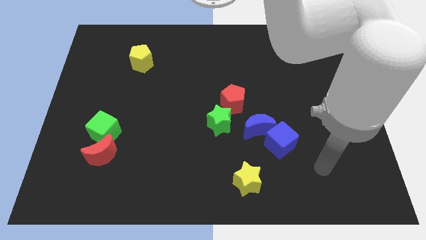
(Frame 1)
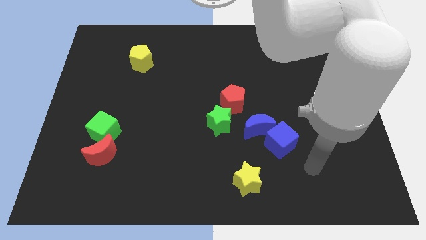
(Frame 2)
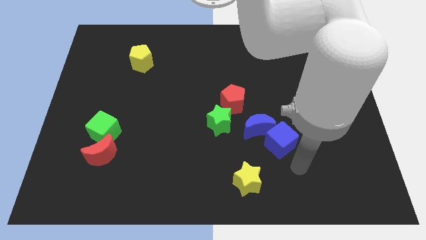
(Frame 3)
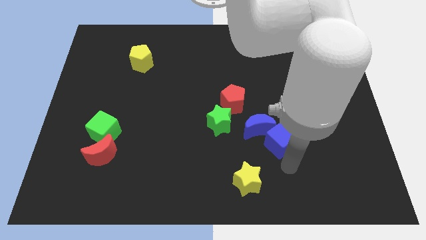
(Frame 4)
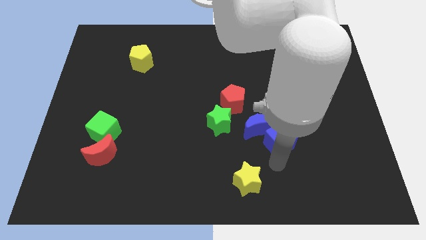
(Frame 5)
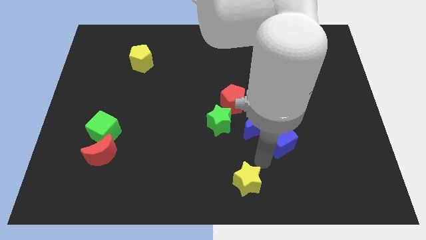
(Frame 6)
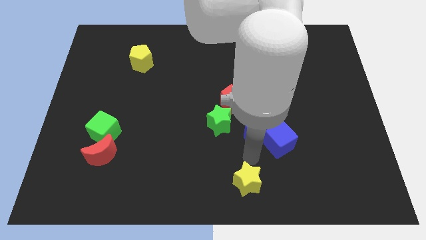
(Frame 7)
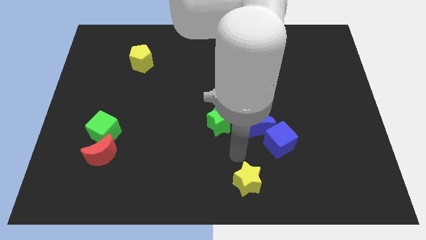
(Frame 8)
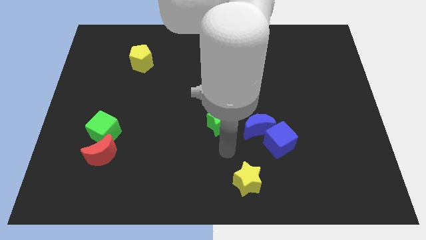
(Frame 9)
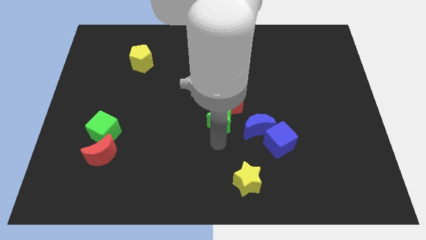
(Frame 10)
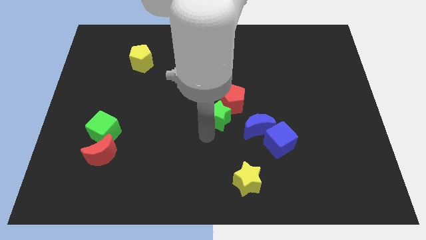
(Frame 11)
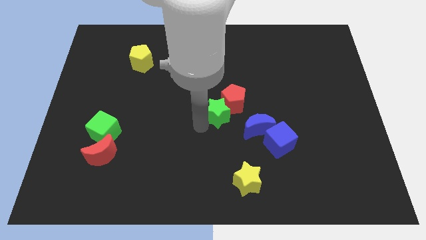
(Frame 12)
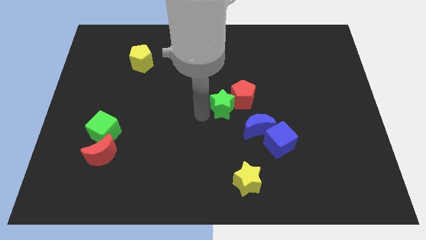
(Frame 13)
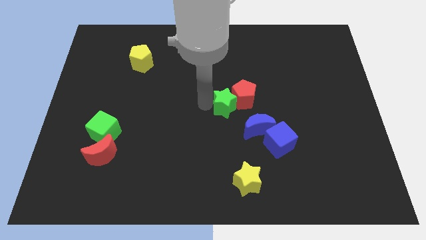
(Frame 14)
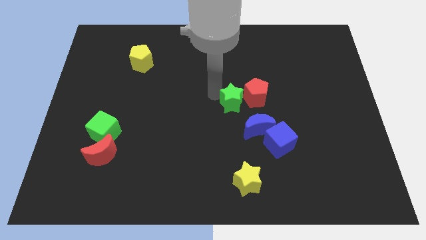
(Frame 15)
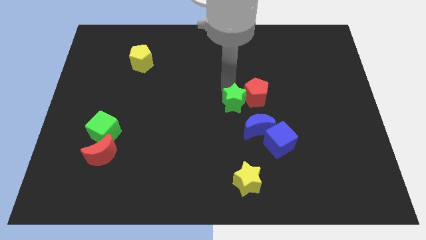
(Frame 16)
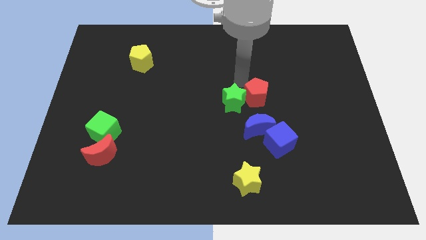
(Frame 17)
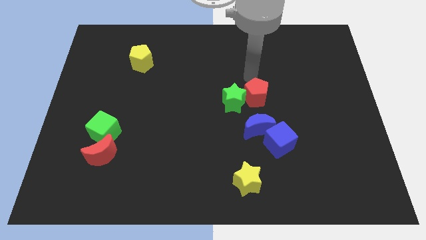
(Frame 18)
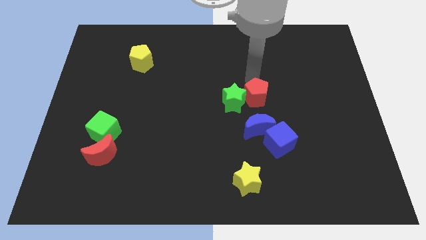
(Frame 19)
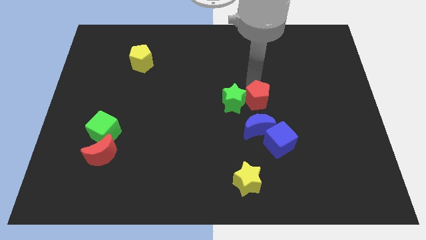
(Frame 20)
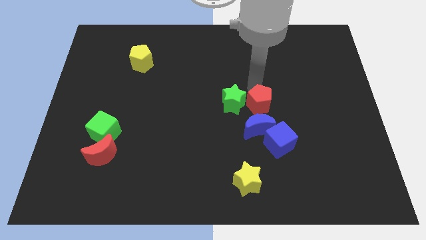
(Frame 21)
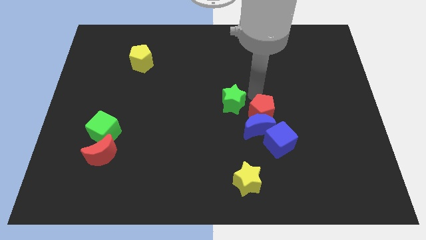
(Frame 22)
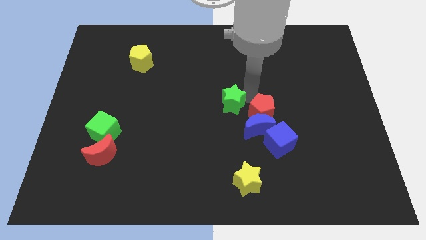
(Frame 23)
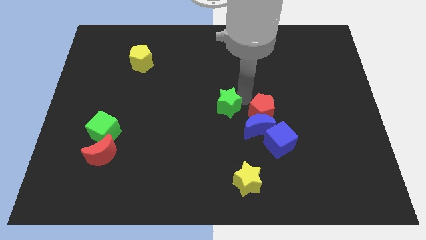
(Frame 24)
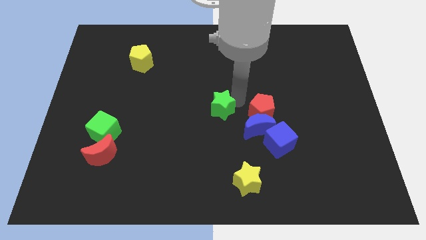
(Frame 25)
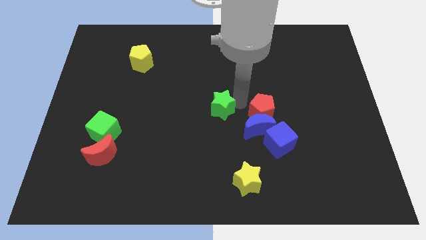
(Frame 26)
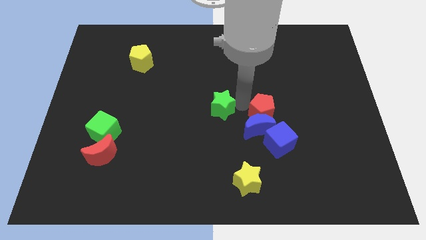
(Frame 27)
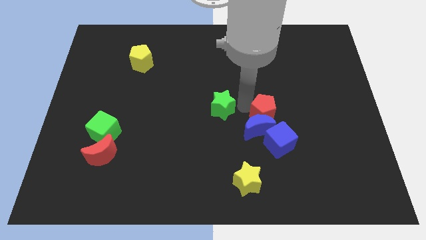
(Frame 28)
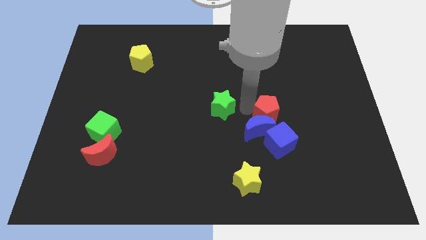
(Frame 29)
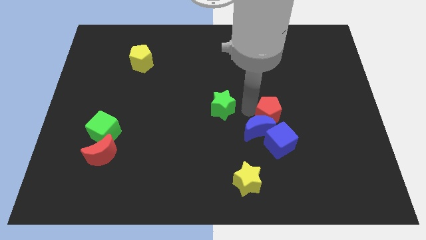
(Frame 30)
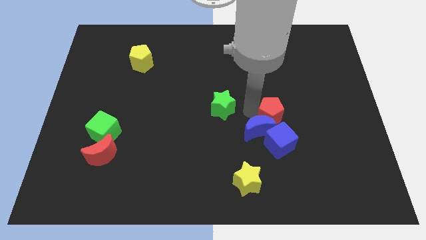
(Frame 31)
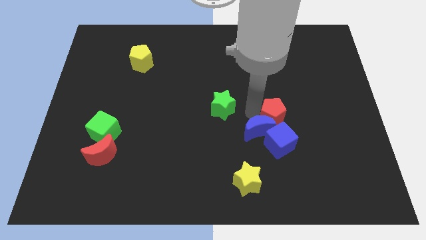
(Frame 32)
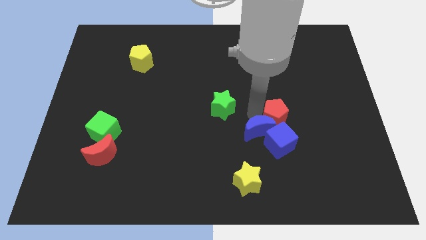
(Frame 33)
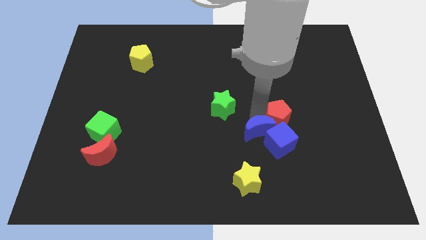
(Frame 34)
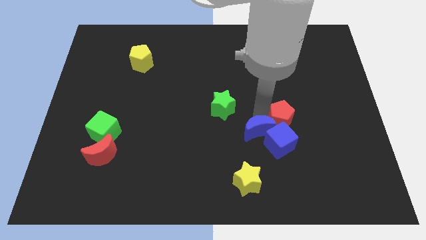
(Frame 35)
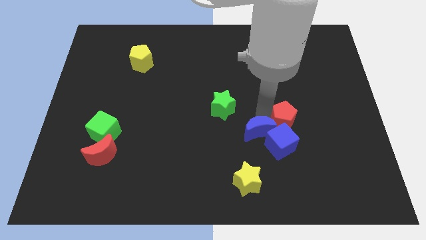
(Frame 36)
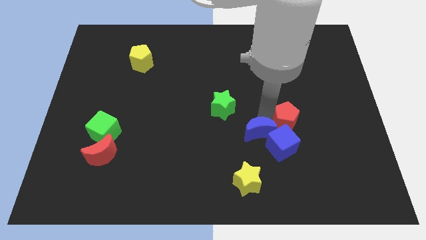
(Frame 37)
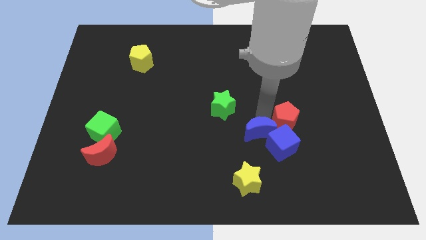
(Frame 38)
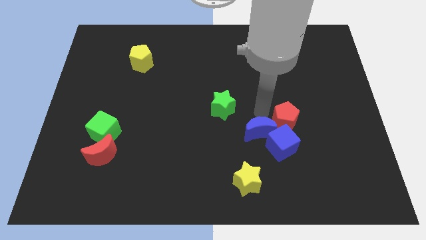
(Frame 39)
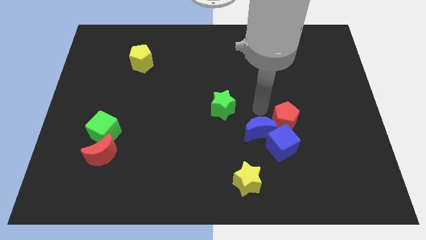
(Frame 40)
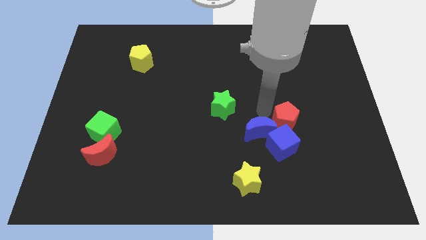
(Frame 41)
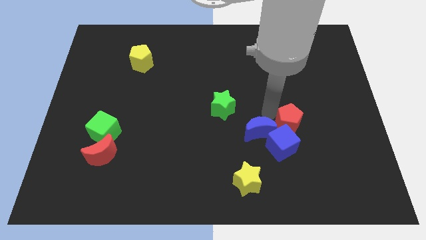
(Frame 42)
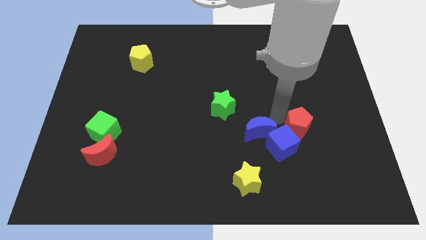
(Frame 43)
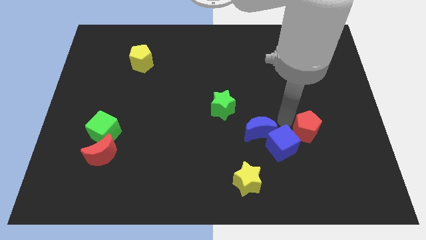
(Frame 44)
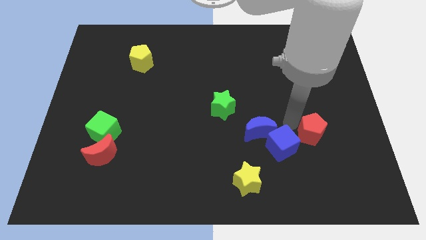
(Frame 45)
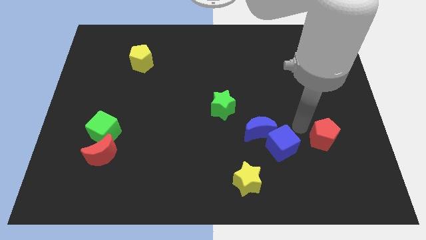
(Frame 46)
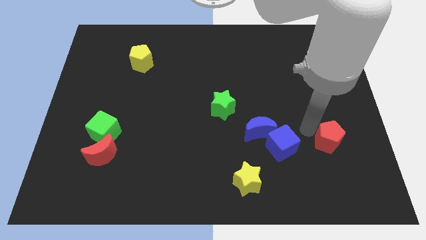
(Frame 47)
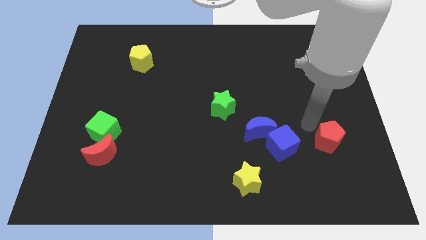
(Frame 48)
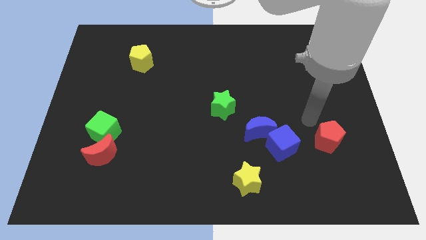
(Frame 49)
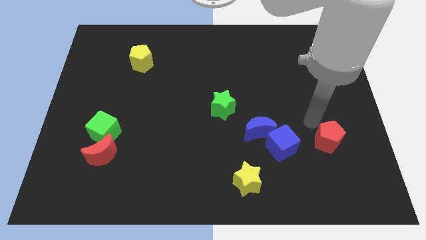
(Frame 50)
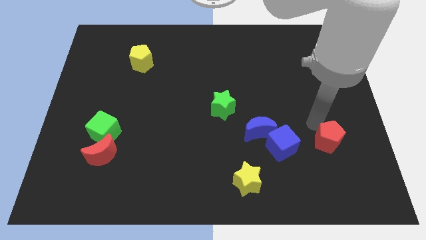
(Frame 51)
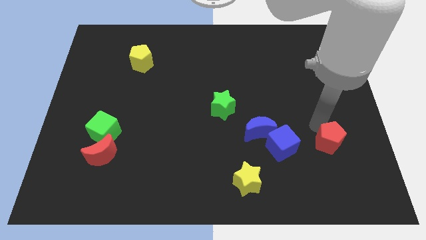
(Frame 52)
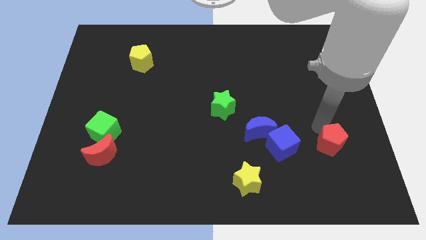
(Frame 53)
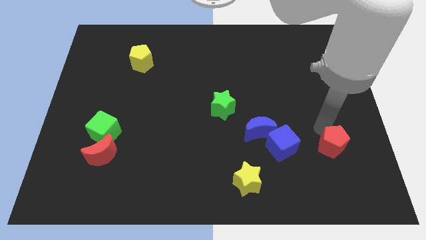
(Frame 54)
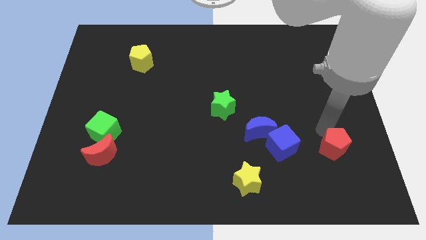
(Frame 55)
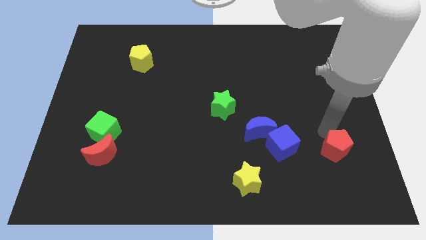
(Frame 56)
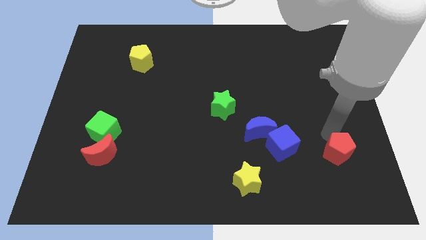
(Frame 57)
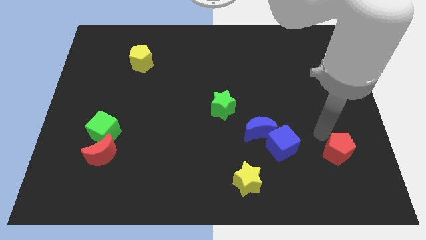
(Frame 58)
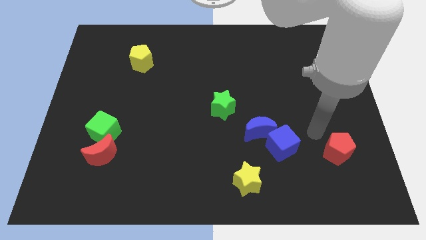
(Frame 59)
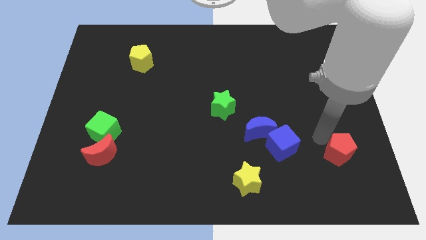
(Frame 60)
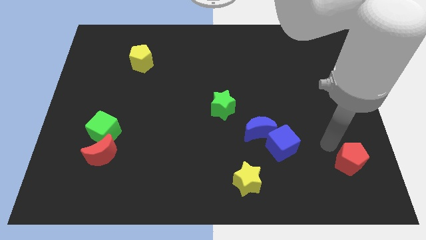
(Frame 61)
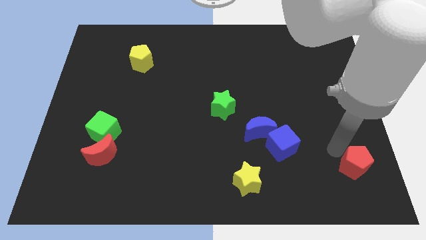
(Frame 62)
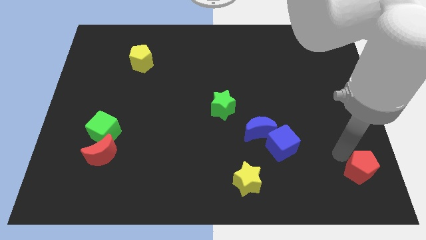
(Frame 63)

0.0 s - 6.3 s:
move the red pentagon to the bottom right
